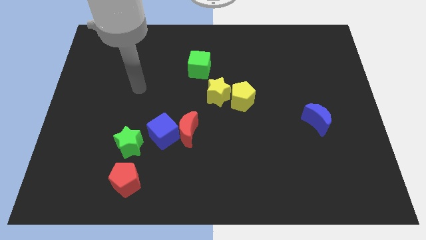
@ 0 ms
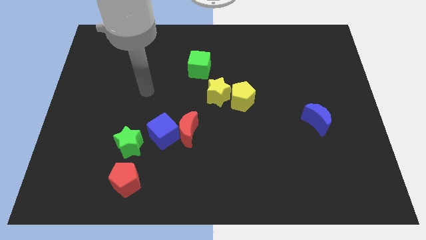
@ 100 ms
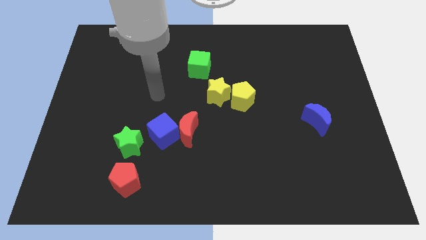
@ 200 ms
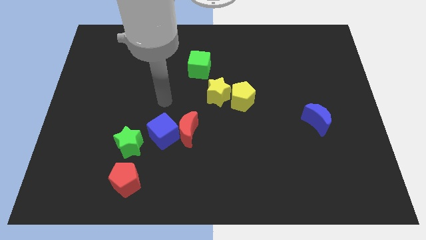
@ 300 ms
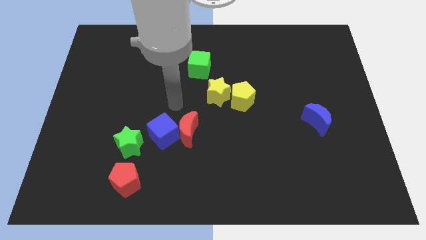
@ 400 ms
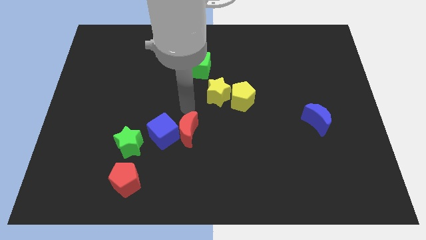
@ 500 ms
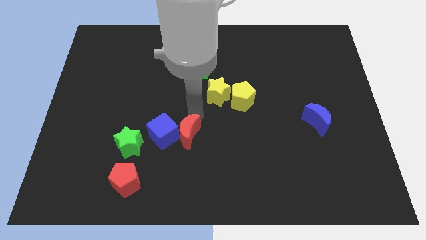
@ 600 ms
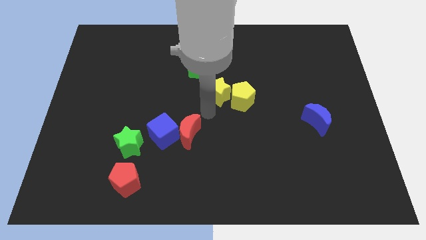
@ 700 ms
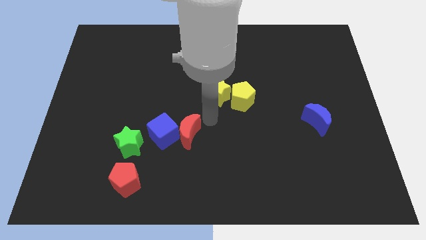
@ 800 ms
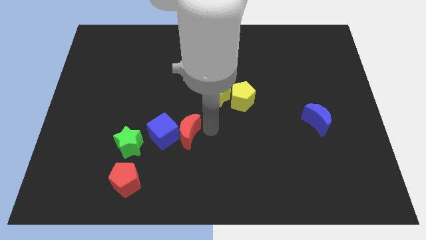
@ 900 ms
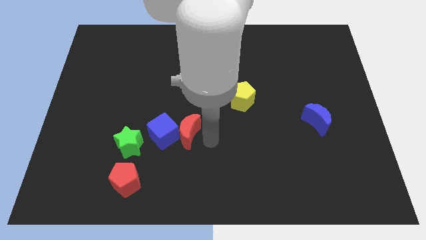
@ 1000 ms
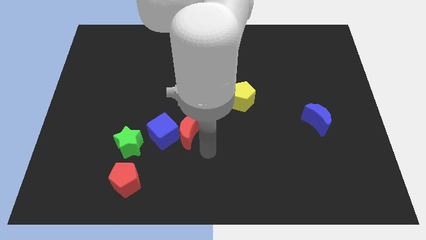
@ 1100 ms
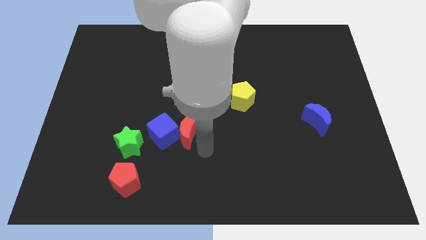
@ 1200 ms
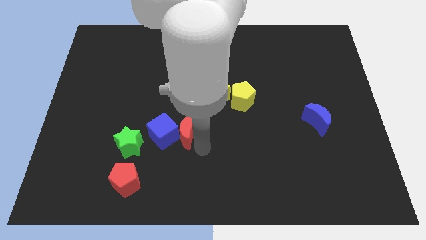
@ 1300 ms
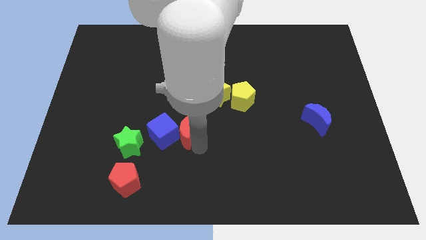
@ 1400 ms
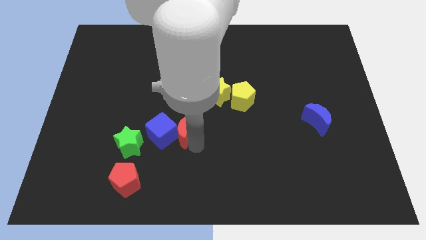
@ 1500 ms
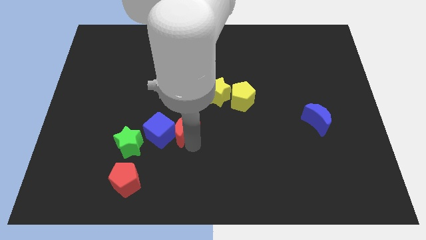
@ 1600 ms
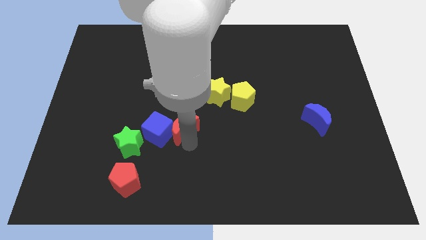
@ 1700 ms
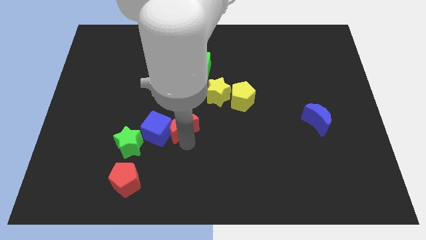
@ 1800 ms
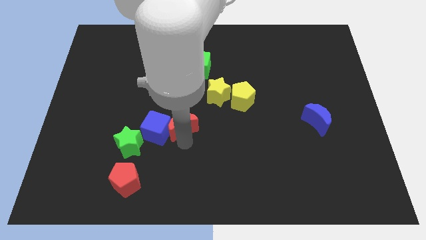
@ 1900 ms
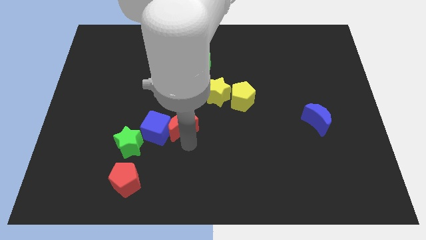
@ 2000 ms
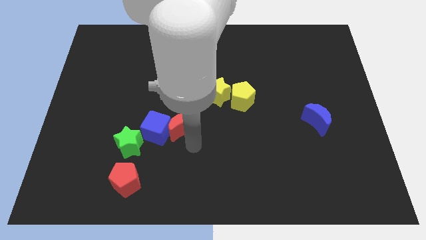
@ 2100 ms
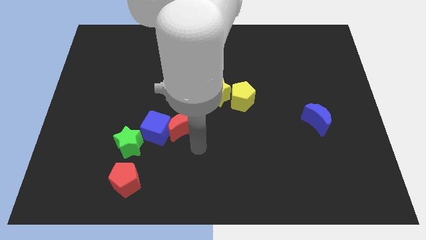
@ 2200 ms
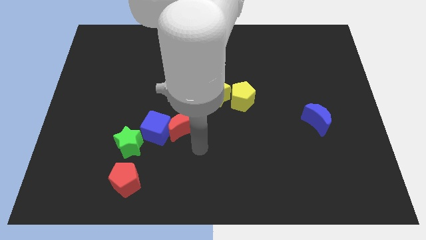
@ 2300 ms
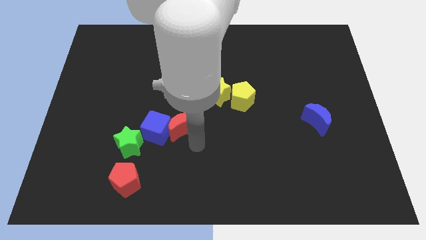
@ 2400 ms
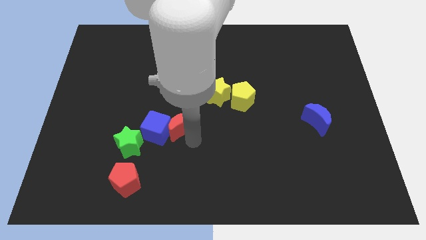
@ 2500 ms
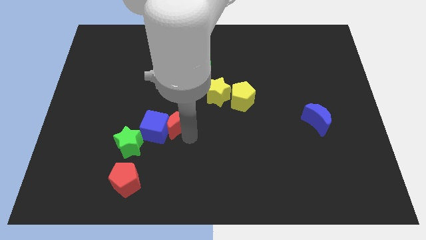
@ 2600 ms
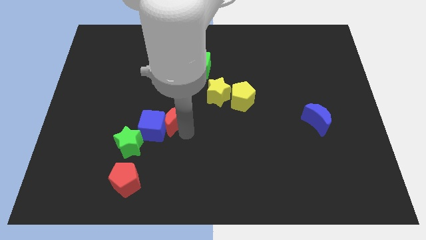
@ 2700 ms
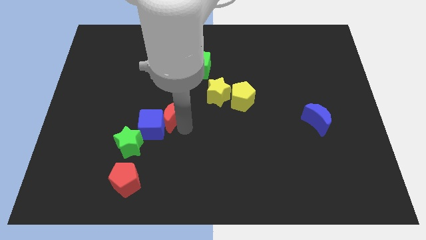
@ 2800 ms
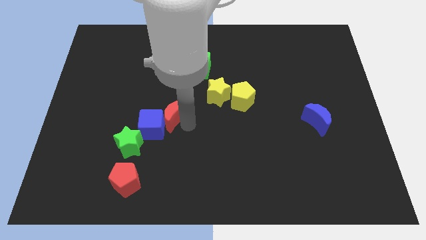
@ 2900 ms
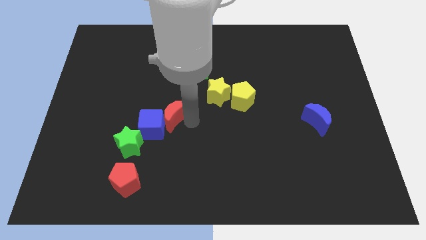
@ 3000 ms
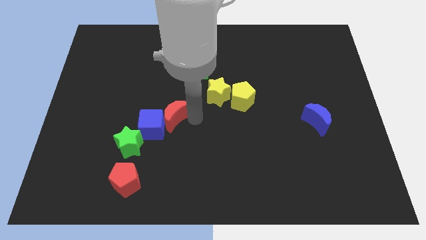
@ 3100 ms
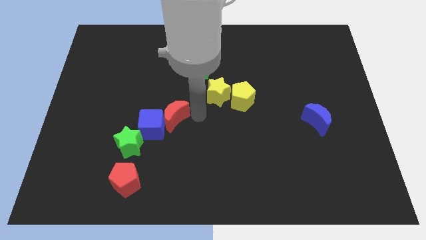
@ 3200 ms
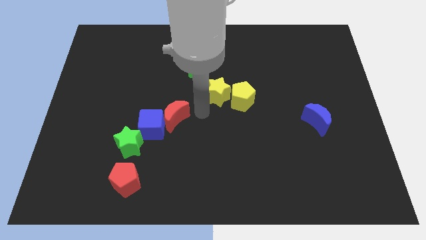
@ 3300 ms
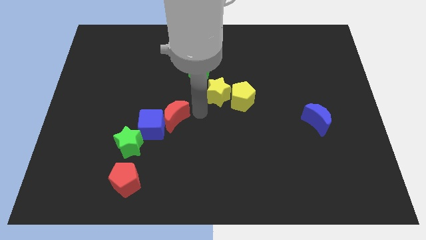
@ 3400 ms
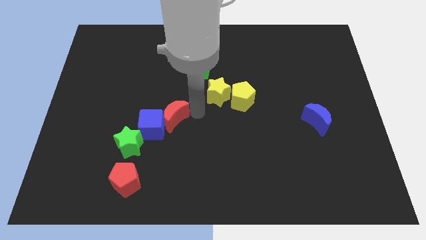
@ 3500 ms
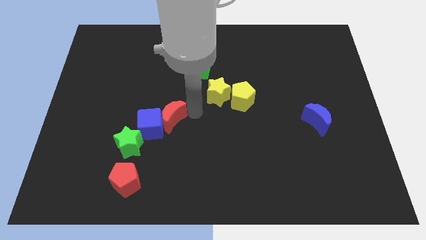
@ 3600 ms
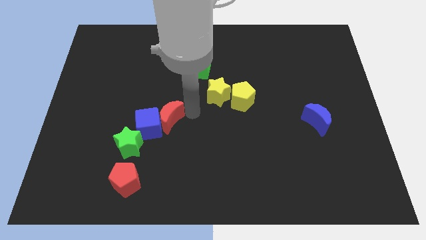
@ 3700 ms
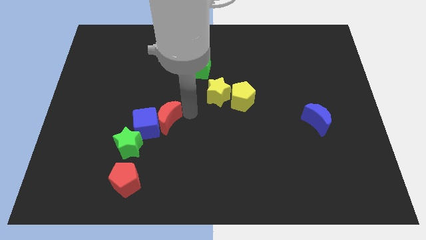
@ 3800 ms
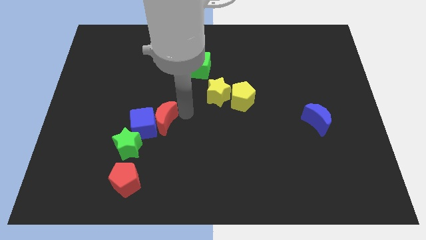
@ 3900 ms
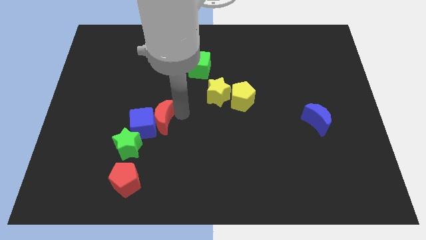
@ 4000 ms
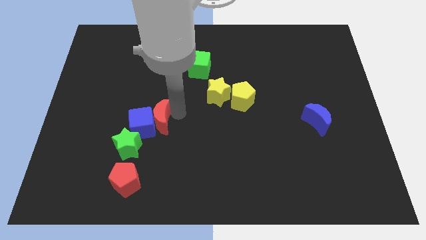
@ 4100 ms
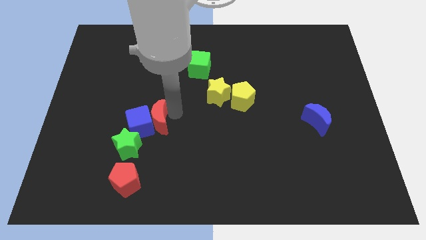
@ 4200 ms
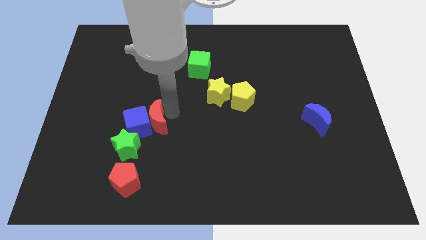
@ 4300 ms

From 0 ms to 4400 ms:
move the red moon left a little bit

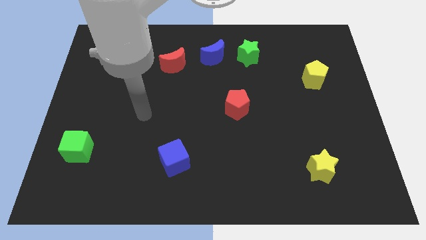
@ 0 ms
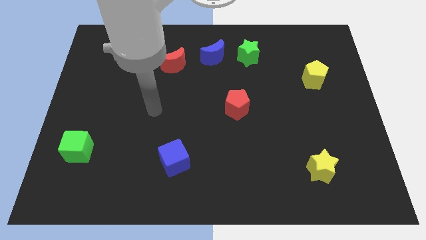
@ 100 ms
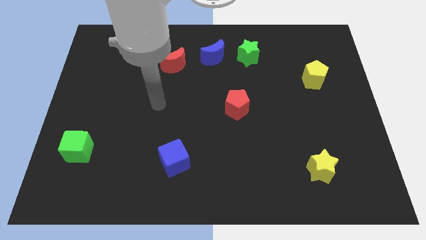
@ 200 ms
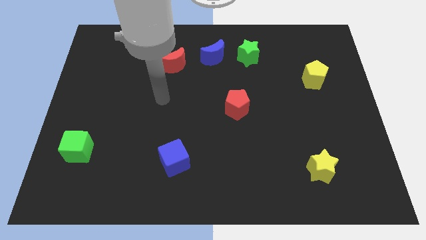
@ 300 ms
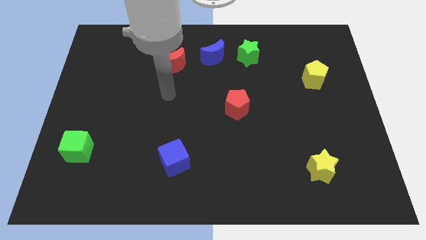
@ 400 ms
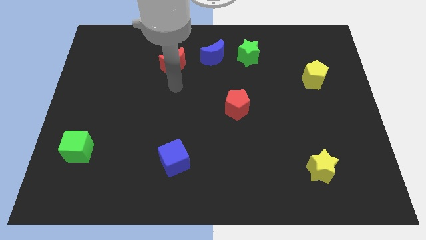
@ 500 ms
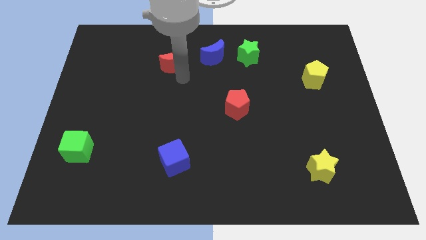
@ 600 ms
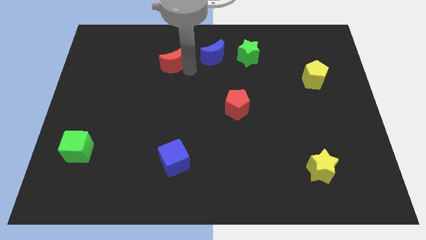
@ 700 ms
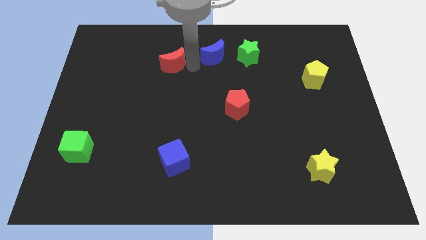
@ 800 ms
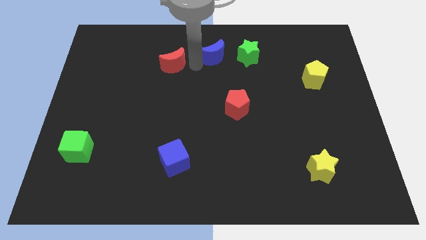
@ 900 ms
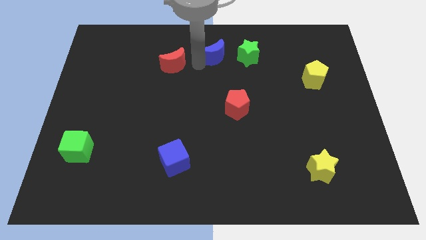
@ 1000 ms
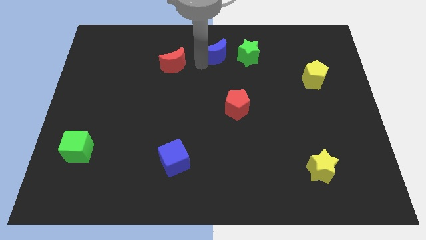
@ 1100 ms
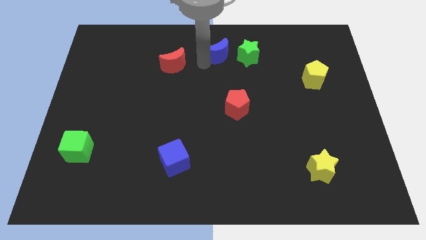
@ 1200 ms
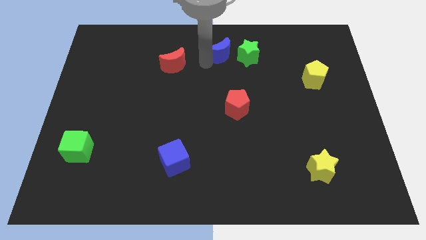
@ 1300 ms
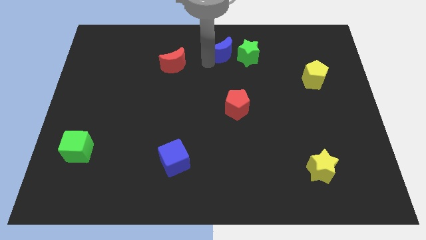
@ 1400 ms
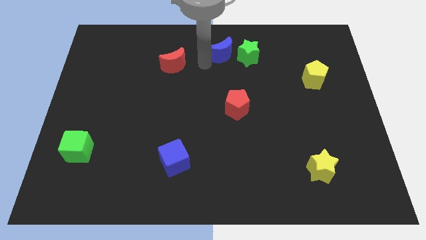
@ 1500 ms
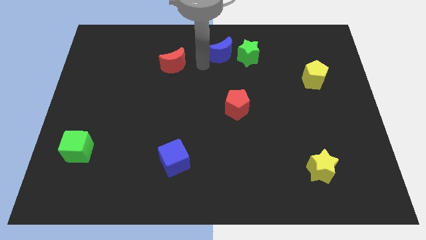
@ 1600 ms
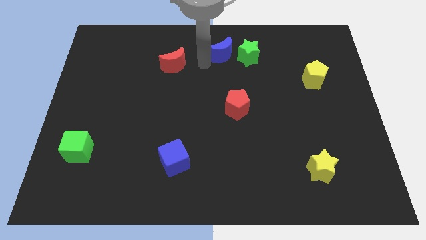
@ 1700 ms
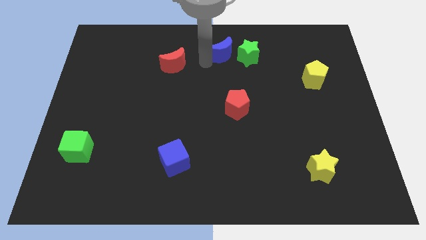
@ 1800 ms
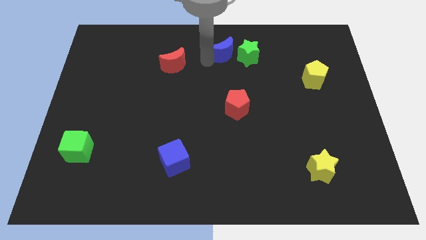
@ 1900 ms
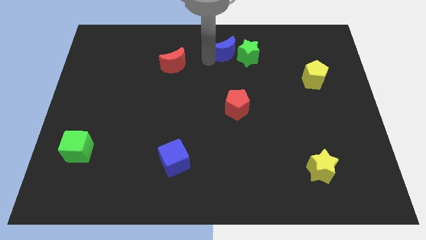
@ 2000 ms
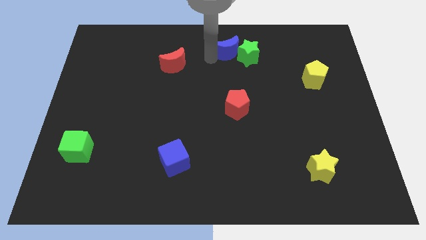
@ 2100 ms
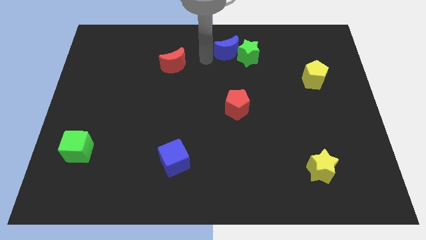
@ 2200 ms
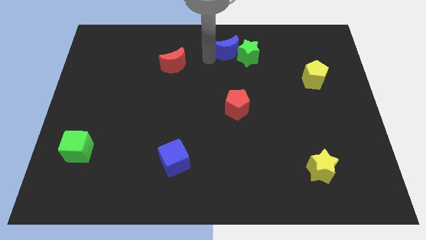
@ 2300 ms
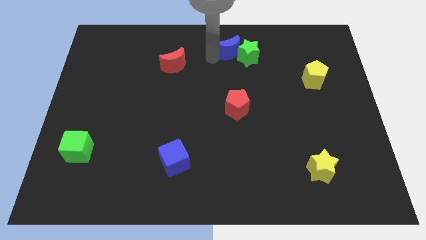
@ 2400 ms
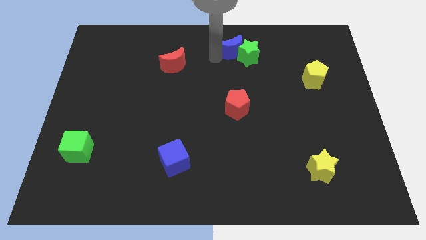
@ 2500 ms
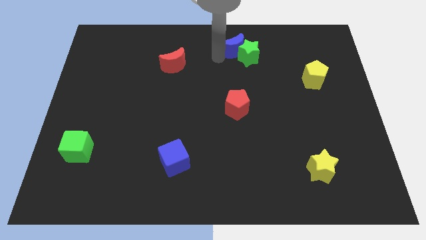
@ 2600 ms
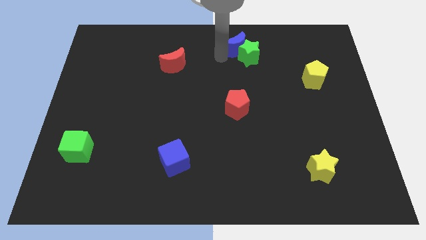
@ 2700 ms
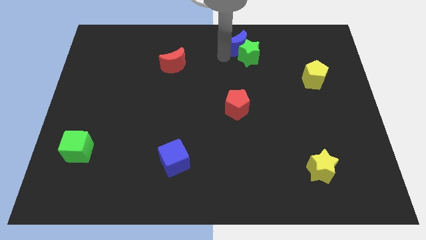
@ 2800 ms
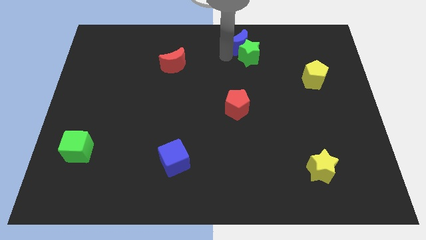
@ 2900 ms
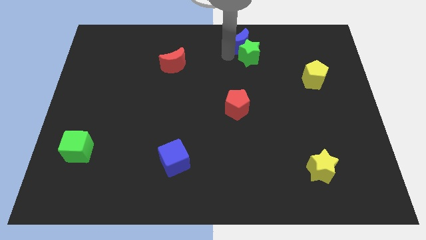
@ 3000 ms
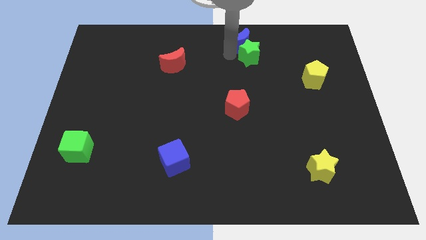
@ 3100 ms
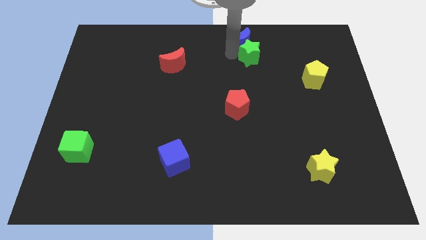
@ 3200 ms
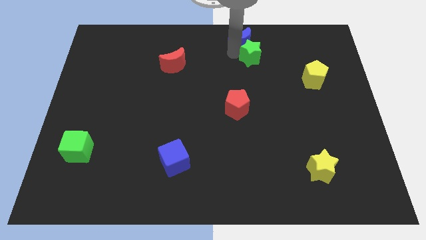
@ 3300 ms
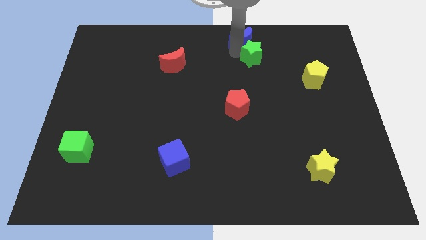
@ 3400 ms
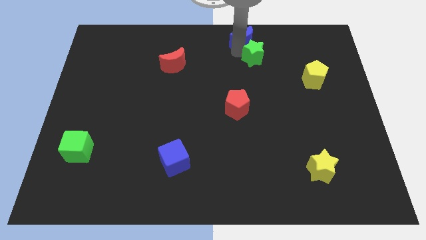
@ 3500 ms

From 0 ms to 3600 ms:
slightly move the blue moon right

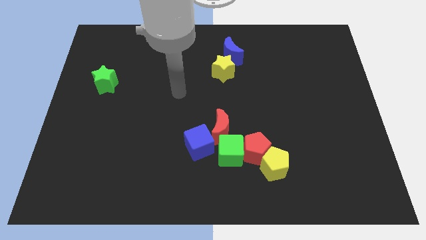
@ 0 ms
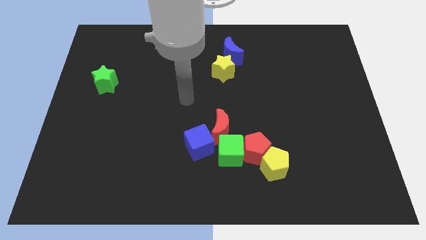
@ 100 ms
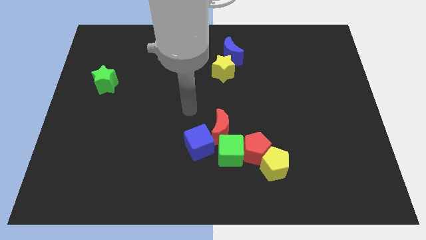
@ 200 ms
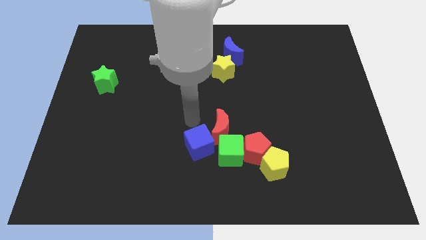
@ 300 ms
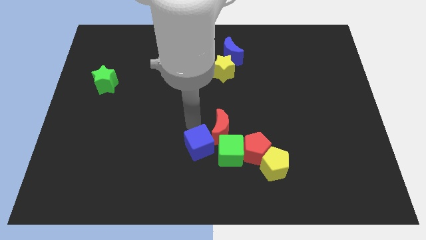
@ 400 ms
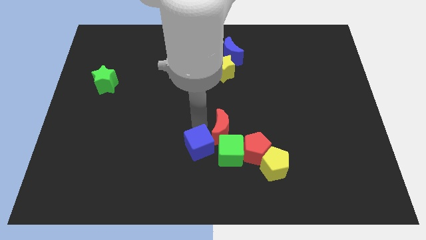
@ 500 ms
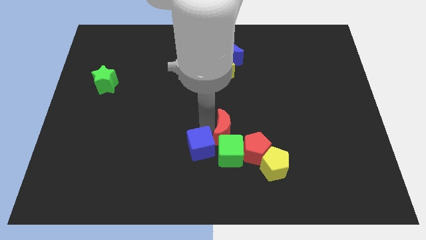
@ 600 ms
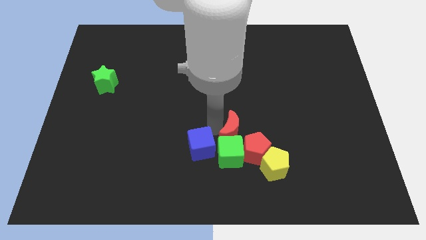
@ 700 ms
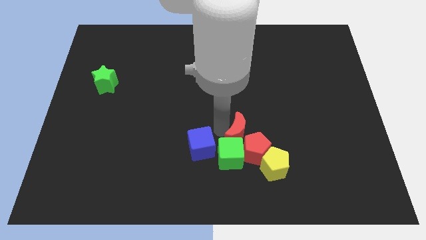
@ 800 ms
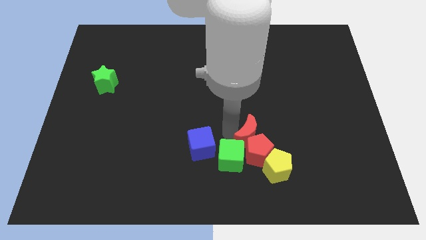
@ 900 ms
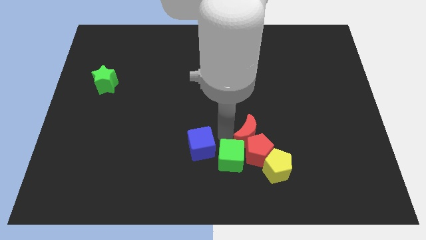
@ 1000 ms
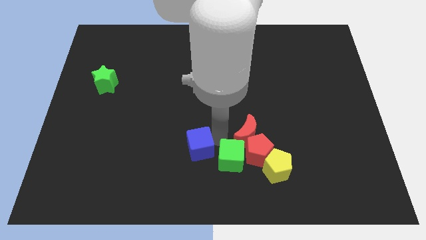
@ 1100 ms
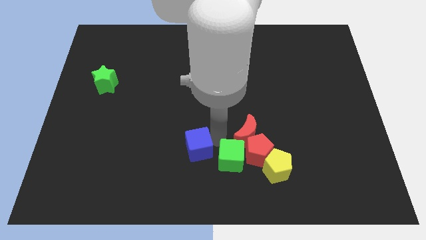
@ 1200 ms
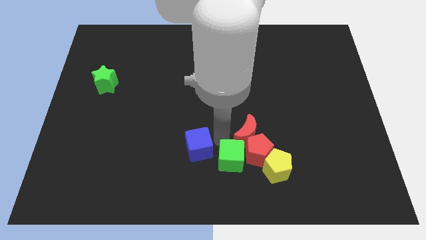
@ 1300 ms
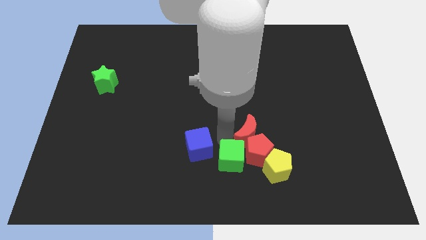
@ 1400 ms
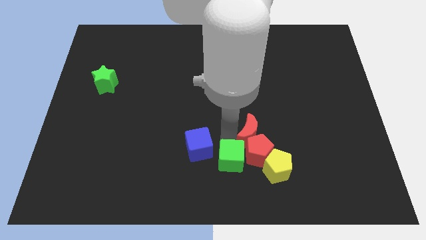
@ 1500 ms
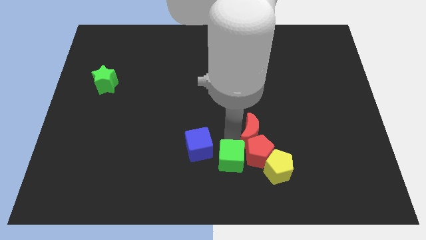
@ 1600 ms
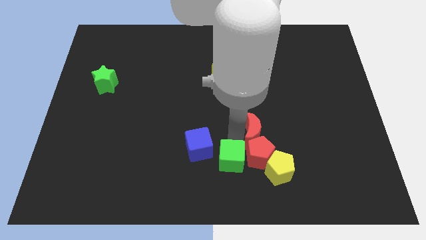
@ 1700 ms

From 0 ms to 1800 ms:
move the red moon a bit to the right
